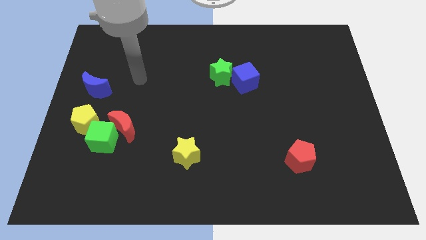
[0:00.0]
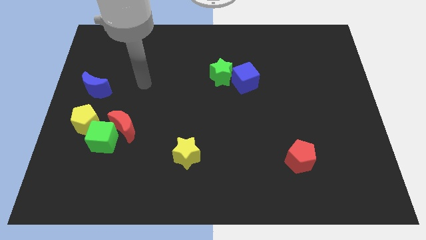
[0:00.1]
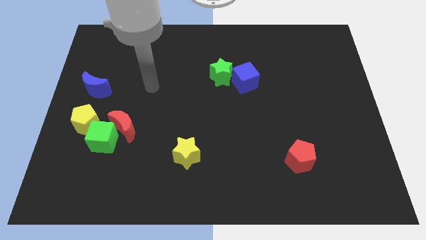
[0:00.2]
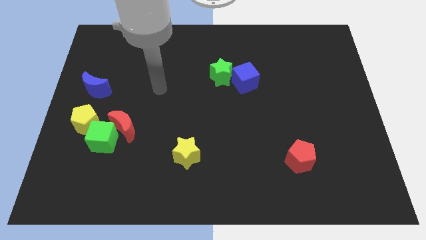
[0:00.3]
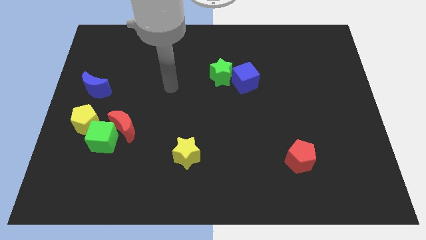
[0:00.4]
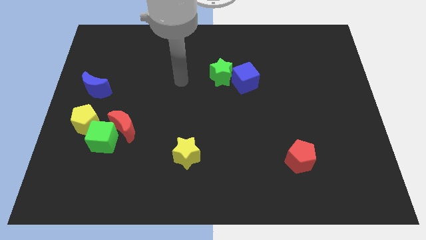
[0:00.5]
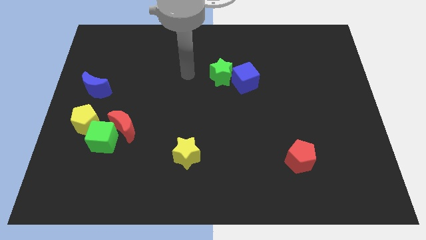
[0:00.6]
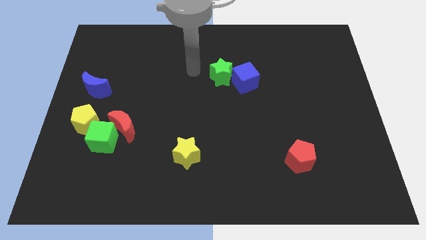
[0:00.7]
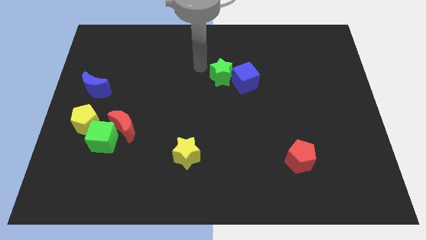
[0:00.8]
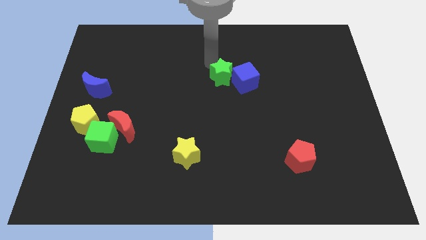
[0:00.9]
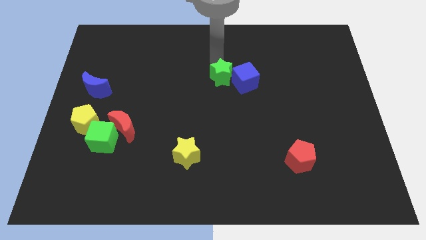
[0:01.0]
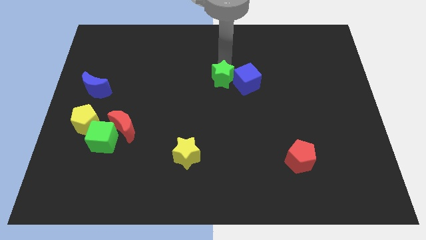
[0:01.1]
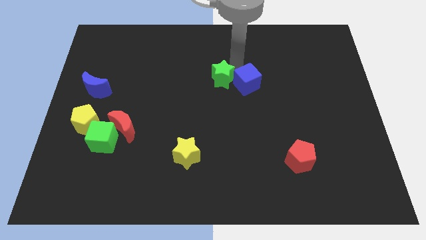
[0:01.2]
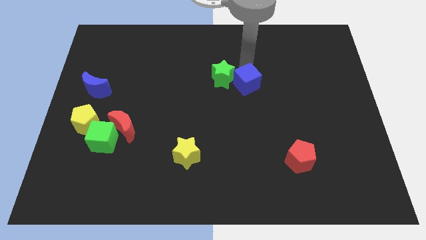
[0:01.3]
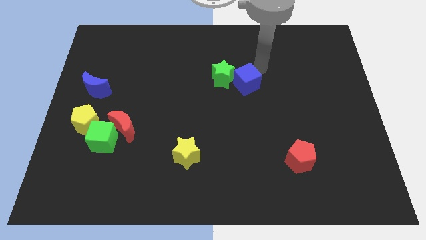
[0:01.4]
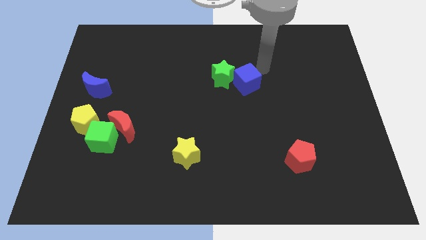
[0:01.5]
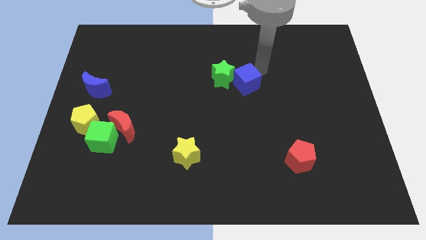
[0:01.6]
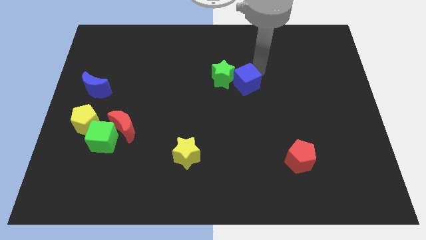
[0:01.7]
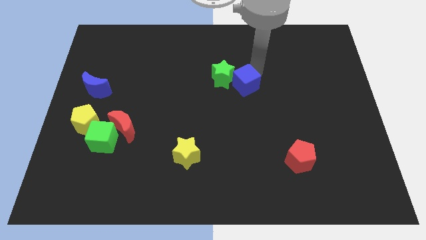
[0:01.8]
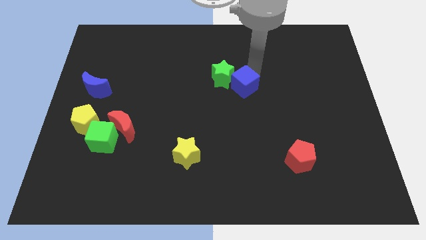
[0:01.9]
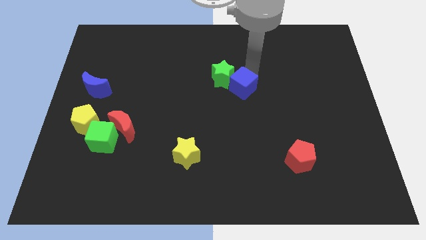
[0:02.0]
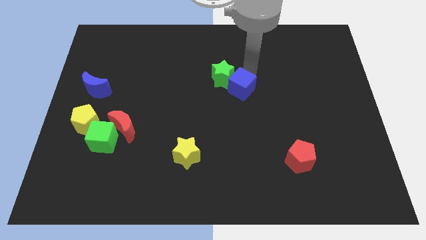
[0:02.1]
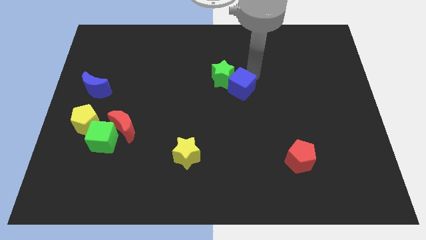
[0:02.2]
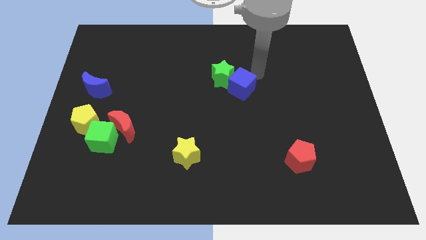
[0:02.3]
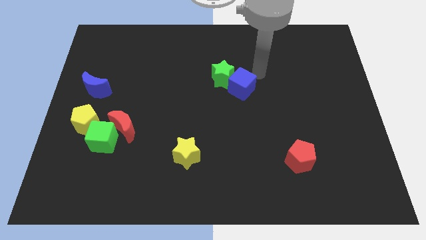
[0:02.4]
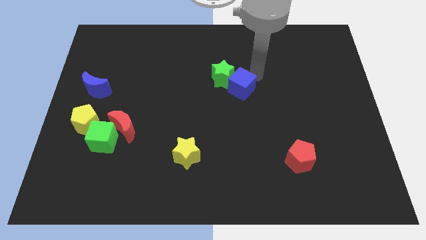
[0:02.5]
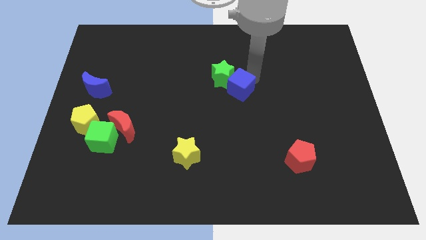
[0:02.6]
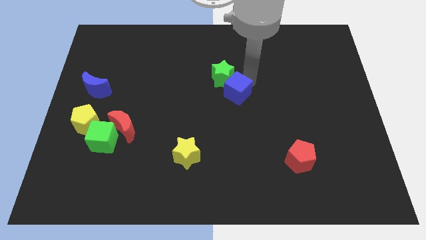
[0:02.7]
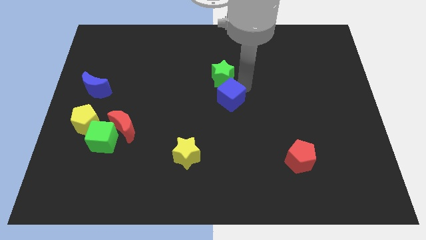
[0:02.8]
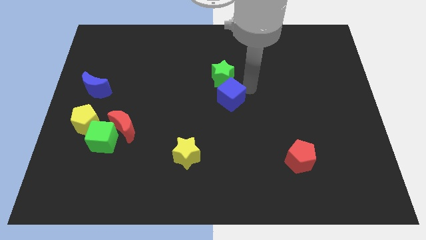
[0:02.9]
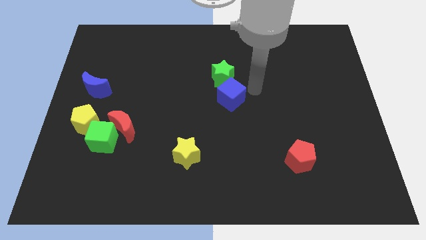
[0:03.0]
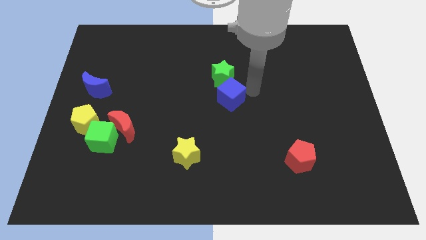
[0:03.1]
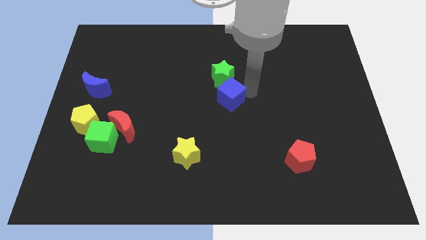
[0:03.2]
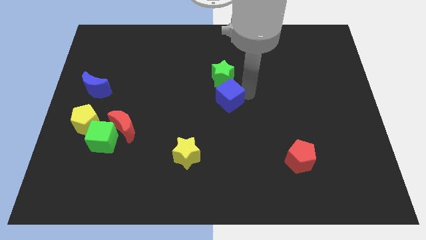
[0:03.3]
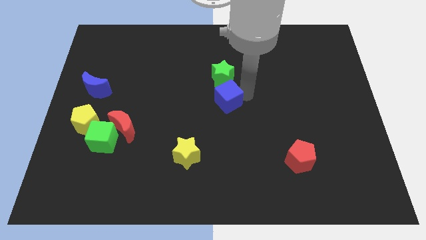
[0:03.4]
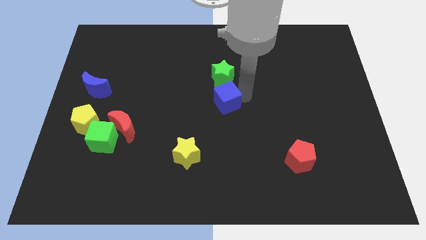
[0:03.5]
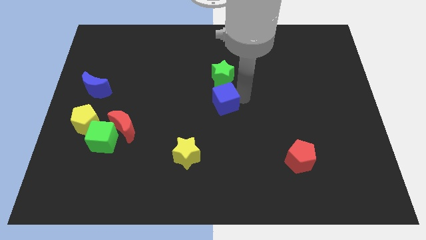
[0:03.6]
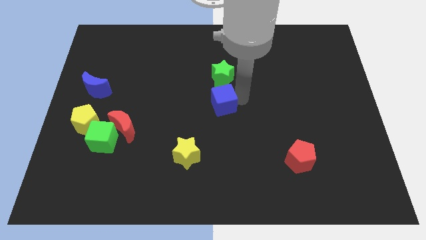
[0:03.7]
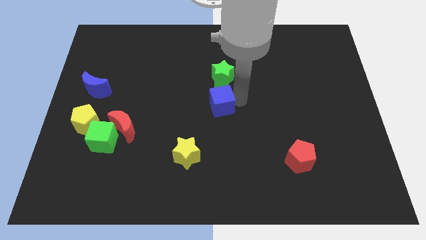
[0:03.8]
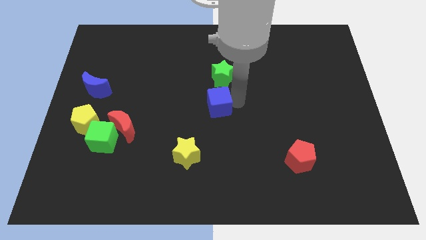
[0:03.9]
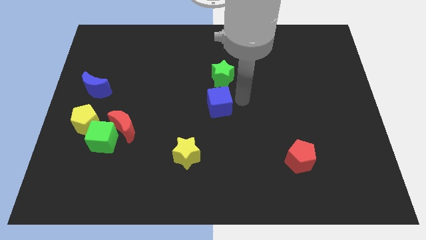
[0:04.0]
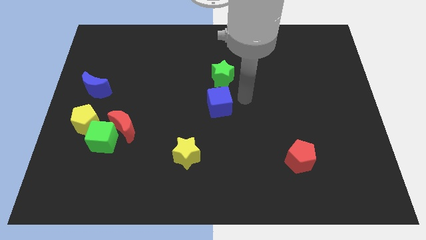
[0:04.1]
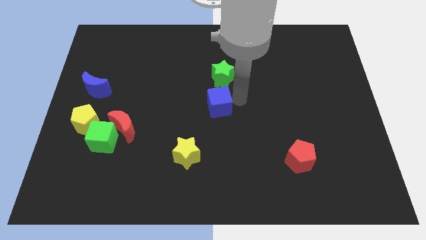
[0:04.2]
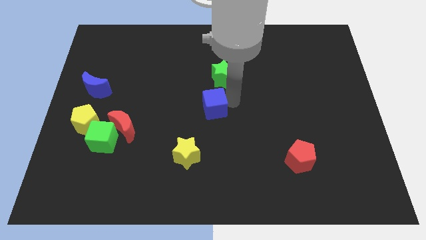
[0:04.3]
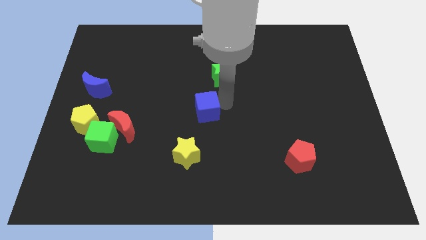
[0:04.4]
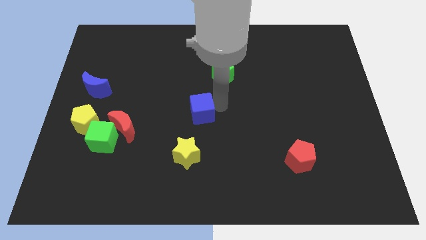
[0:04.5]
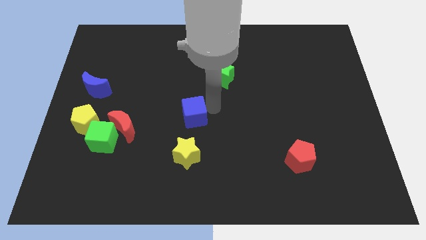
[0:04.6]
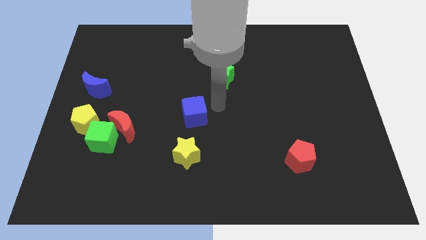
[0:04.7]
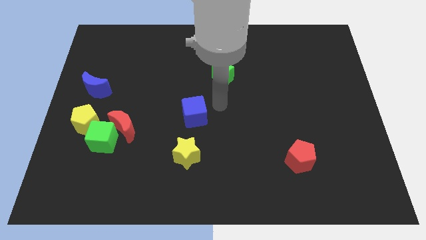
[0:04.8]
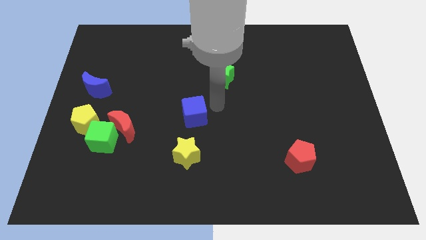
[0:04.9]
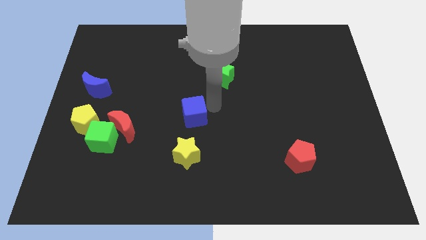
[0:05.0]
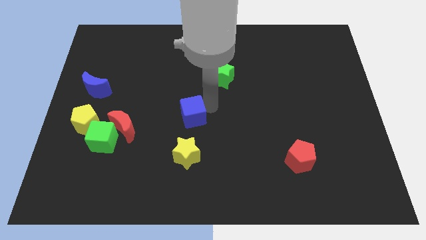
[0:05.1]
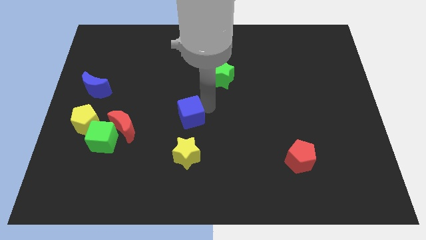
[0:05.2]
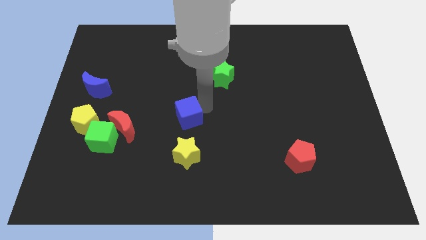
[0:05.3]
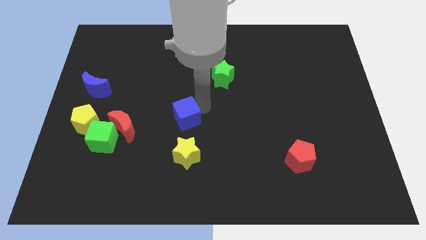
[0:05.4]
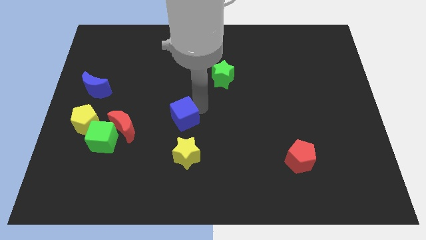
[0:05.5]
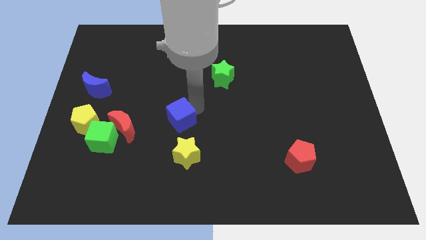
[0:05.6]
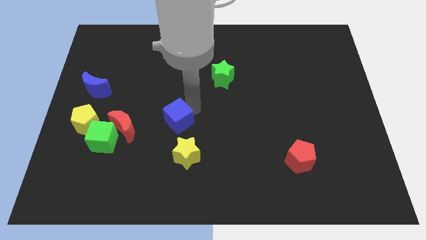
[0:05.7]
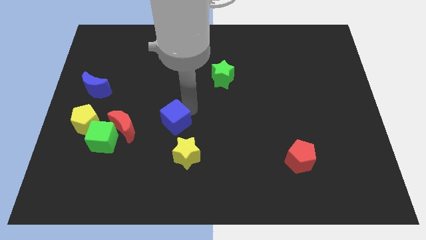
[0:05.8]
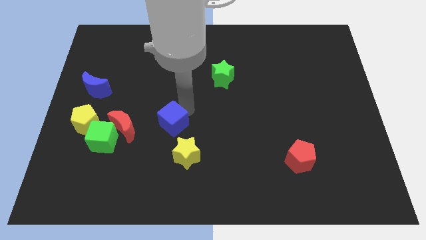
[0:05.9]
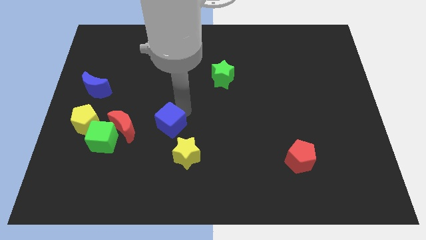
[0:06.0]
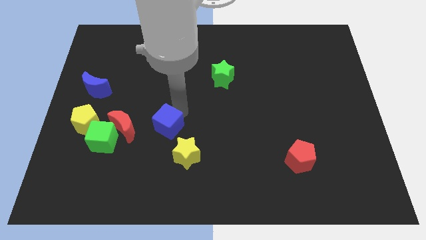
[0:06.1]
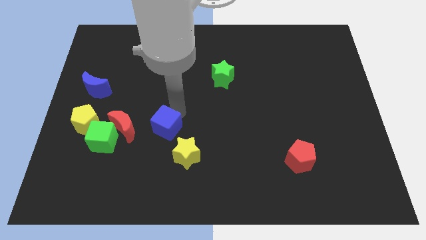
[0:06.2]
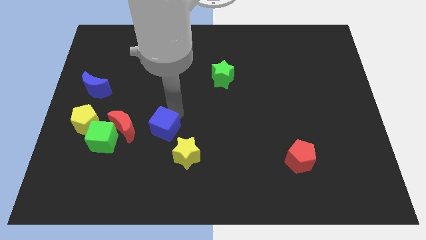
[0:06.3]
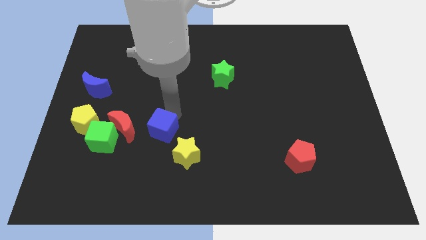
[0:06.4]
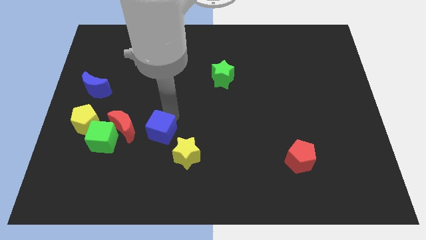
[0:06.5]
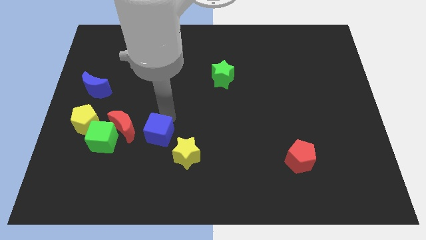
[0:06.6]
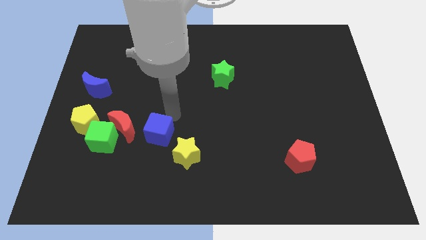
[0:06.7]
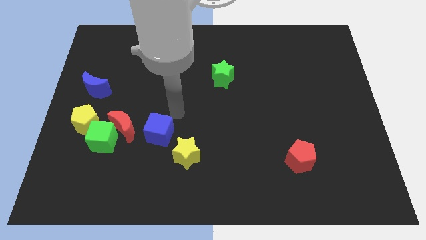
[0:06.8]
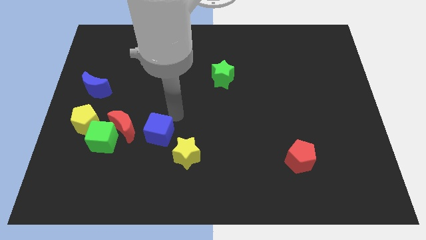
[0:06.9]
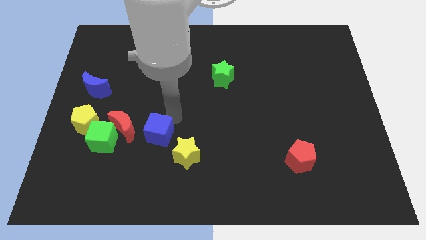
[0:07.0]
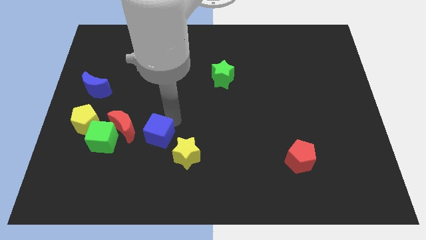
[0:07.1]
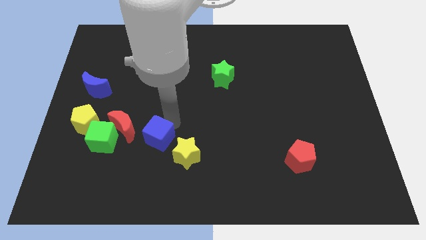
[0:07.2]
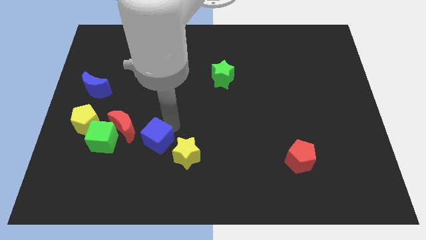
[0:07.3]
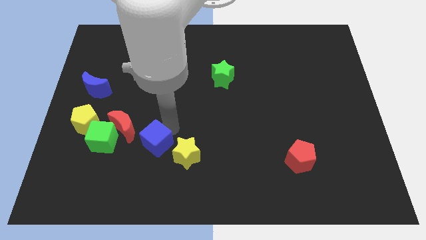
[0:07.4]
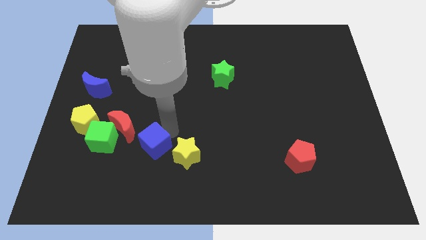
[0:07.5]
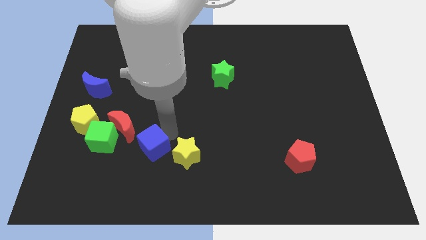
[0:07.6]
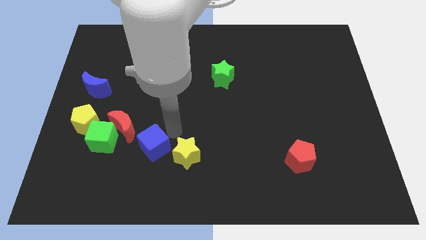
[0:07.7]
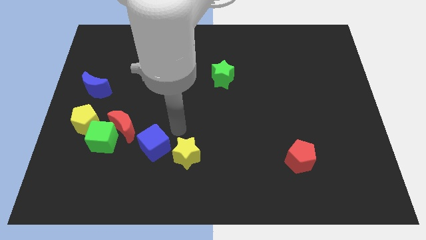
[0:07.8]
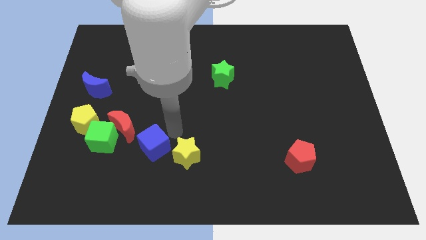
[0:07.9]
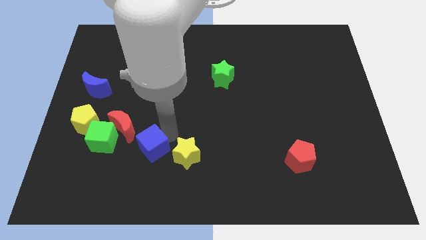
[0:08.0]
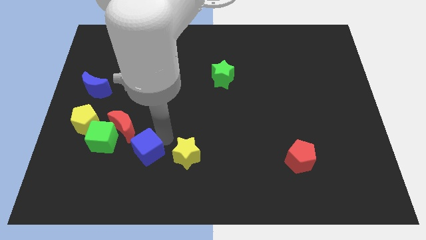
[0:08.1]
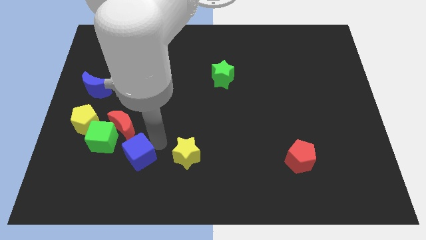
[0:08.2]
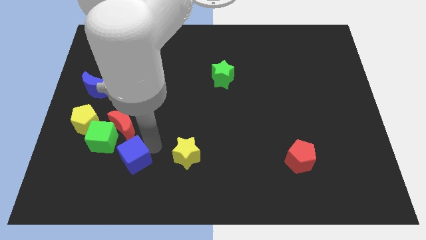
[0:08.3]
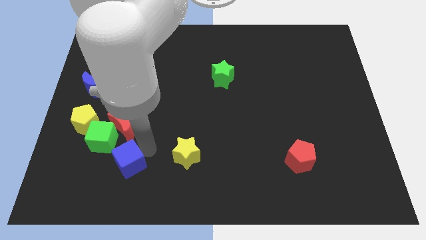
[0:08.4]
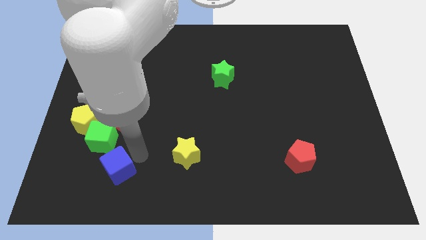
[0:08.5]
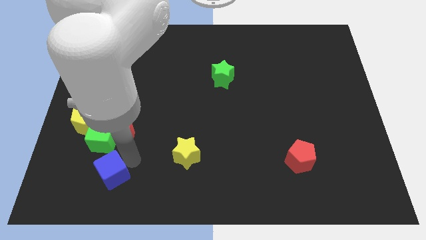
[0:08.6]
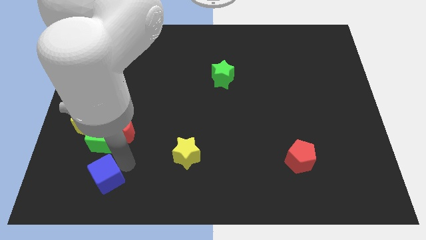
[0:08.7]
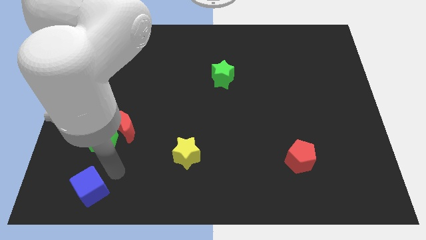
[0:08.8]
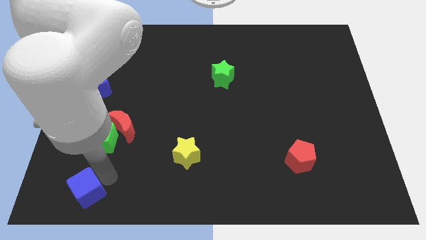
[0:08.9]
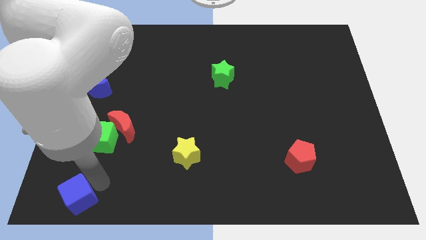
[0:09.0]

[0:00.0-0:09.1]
move the blue cube to the bottom left
